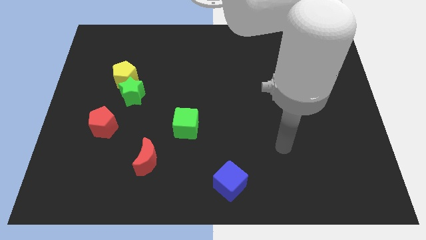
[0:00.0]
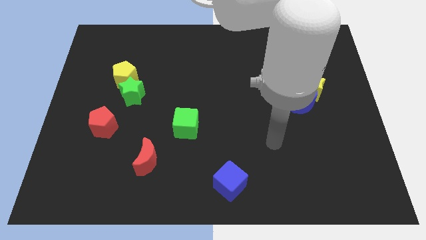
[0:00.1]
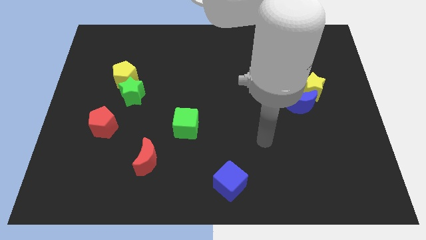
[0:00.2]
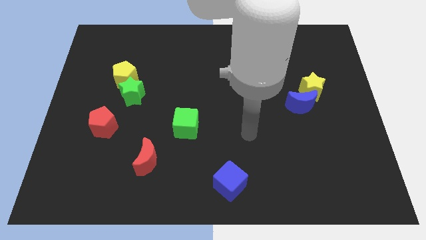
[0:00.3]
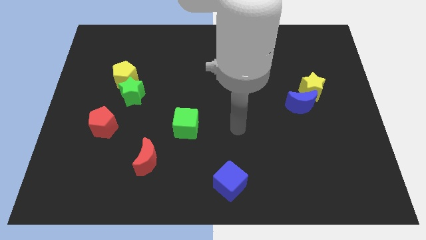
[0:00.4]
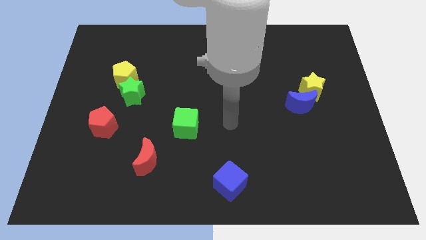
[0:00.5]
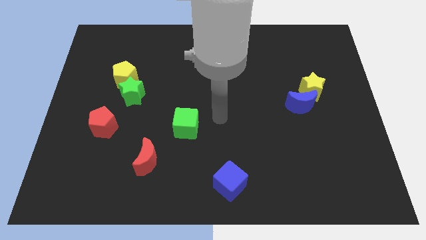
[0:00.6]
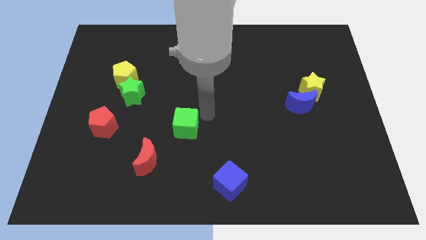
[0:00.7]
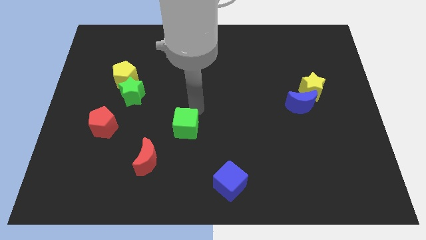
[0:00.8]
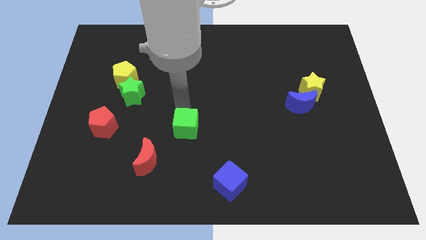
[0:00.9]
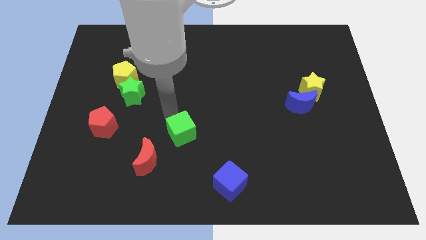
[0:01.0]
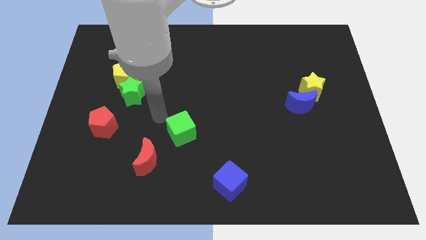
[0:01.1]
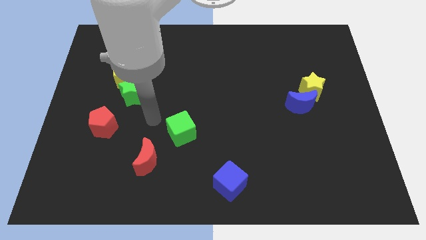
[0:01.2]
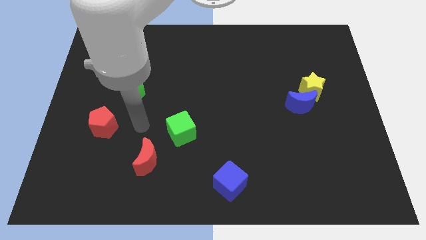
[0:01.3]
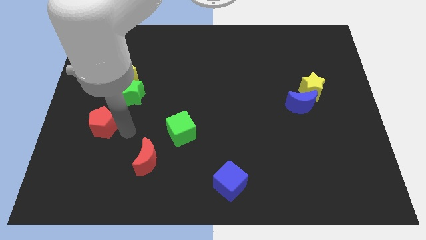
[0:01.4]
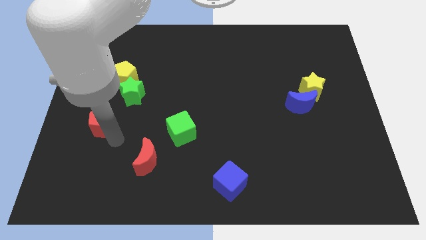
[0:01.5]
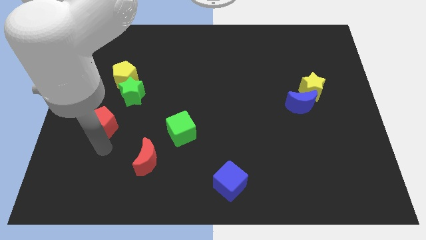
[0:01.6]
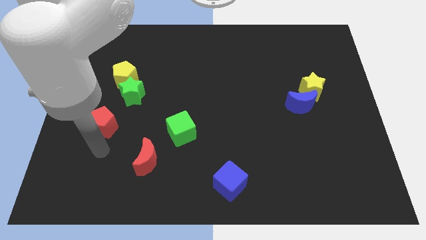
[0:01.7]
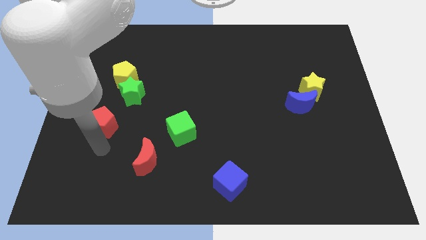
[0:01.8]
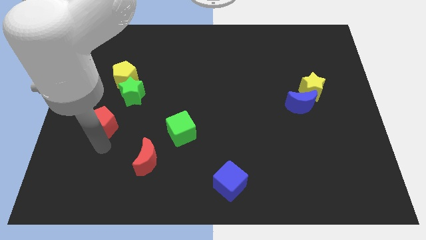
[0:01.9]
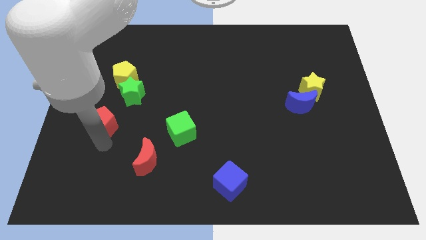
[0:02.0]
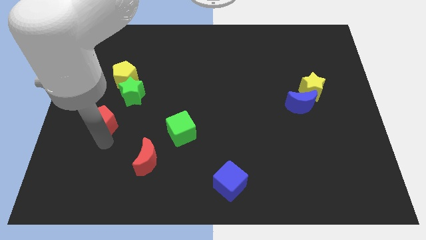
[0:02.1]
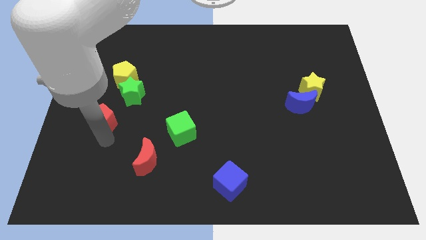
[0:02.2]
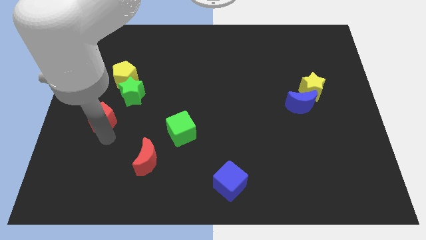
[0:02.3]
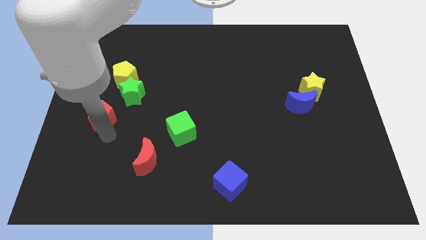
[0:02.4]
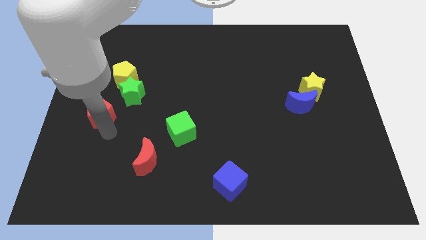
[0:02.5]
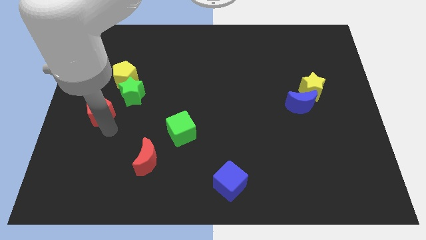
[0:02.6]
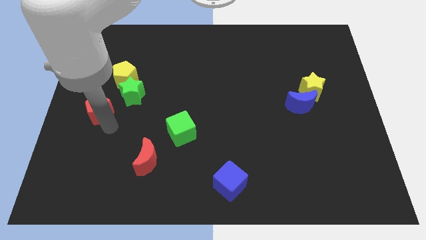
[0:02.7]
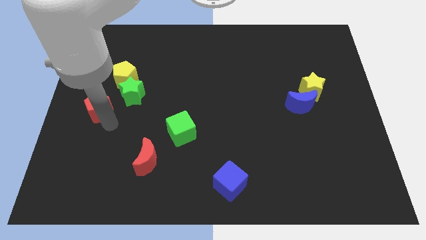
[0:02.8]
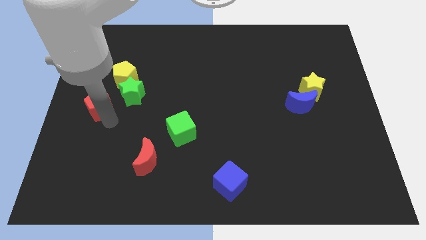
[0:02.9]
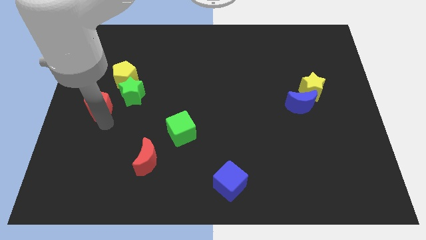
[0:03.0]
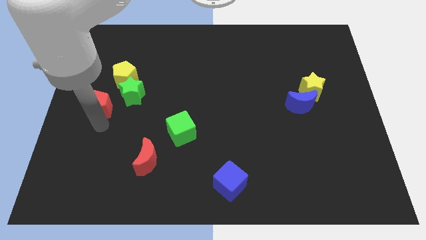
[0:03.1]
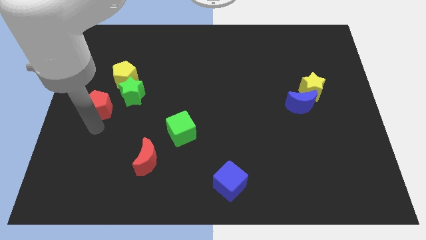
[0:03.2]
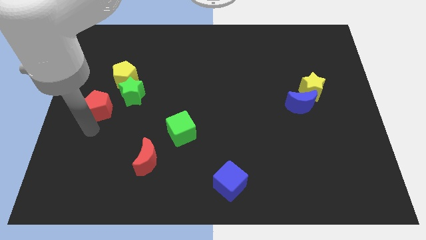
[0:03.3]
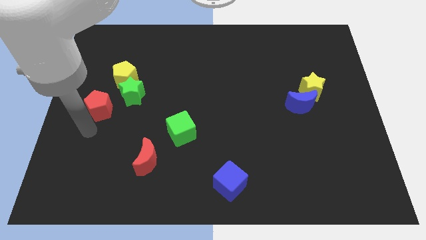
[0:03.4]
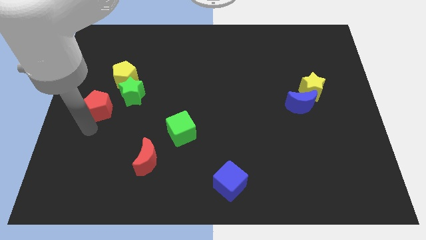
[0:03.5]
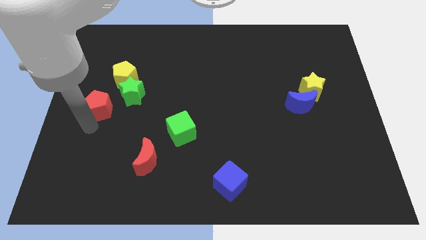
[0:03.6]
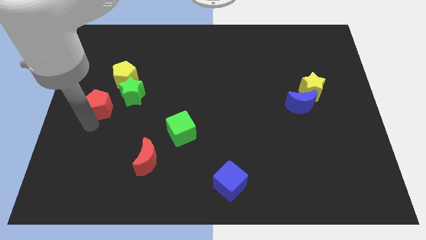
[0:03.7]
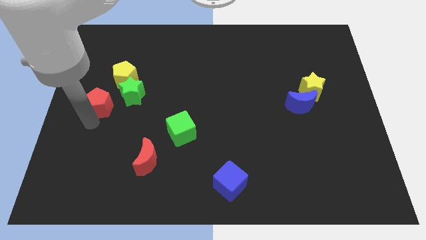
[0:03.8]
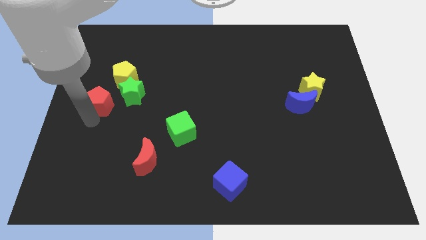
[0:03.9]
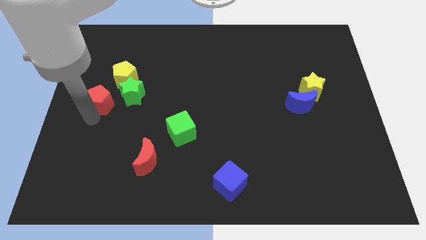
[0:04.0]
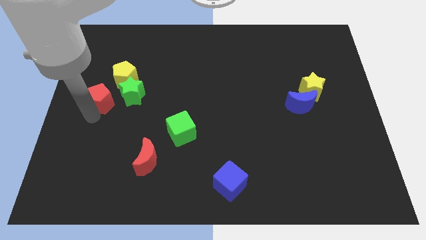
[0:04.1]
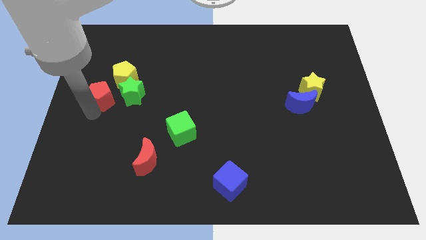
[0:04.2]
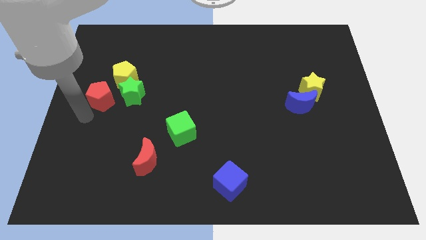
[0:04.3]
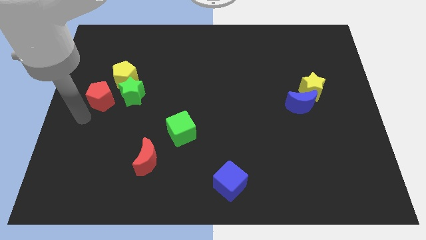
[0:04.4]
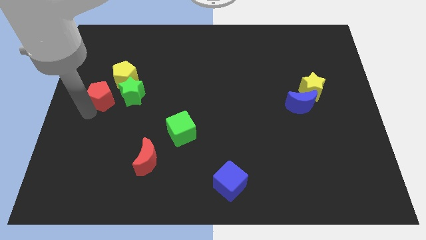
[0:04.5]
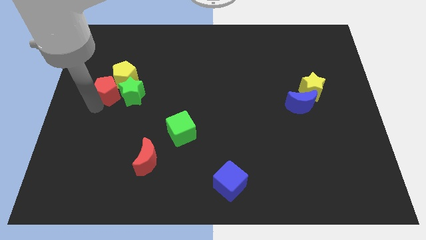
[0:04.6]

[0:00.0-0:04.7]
put the red pentagon to the yellow pentagon

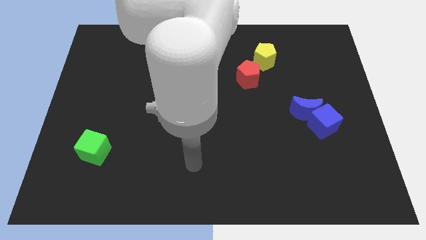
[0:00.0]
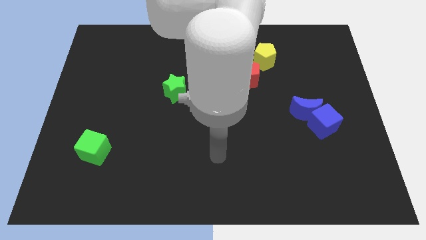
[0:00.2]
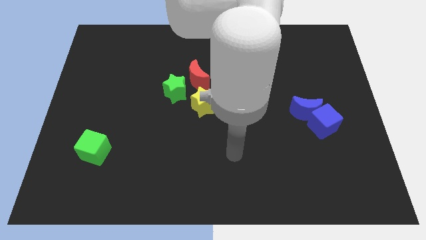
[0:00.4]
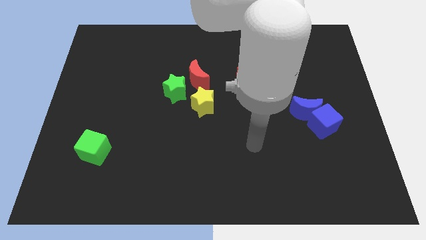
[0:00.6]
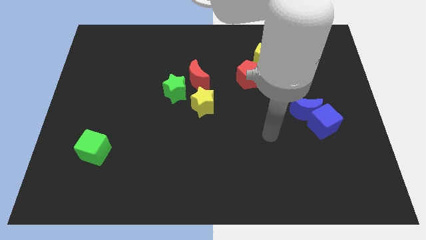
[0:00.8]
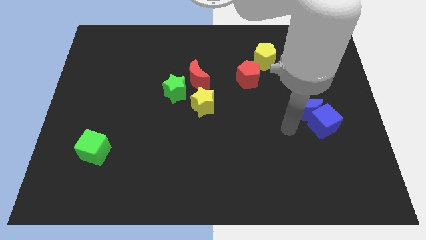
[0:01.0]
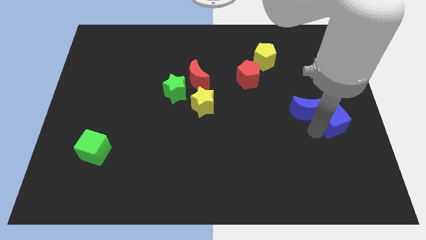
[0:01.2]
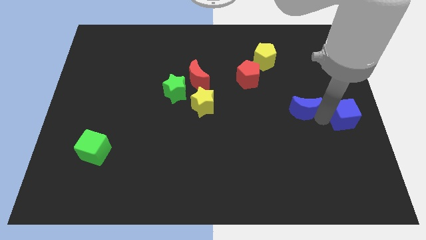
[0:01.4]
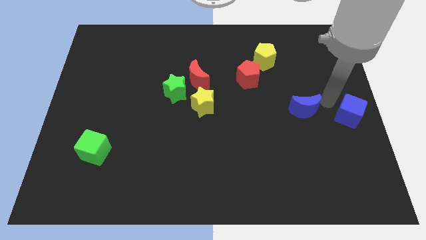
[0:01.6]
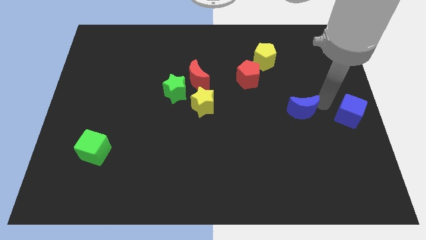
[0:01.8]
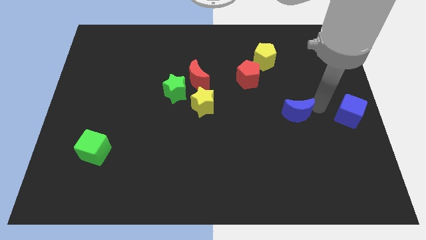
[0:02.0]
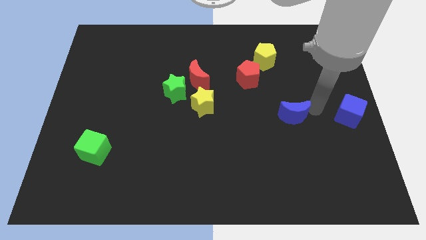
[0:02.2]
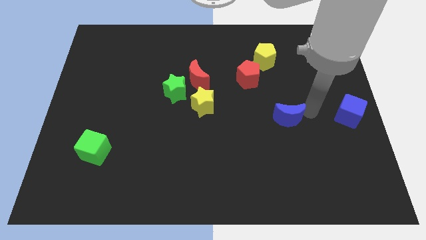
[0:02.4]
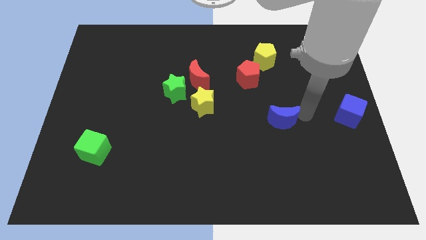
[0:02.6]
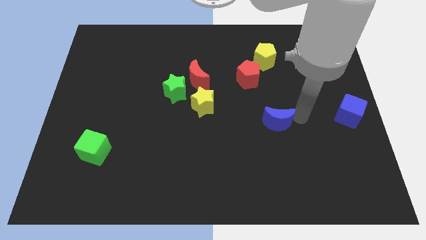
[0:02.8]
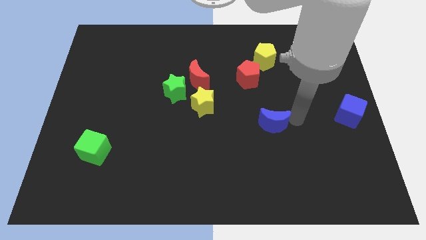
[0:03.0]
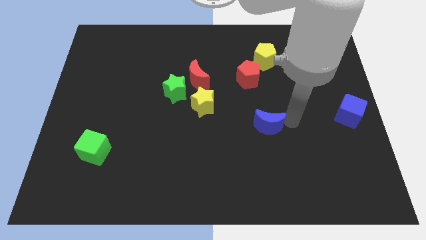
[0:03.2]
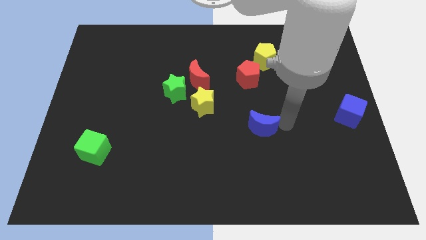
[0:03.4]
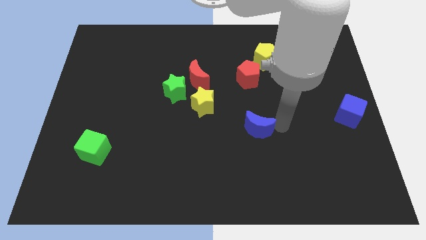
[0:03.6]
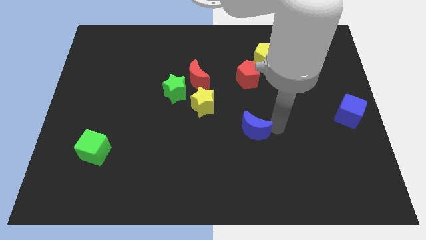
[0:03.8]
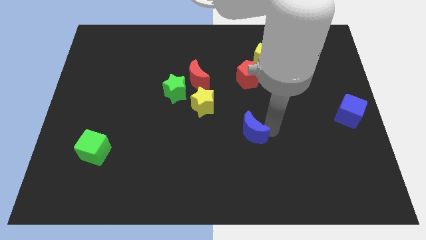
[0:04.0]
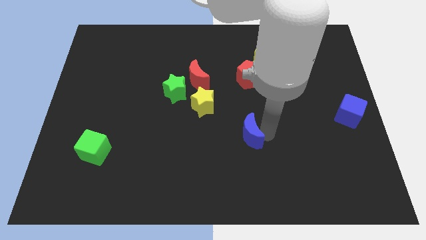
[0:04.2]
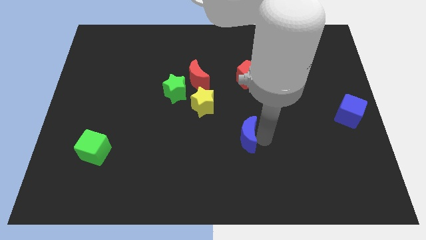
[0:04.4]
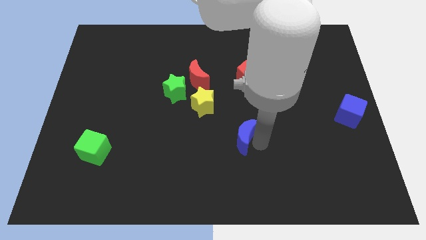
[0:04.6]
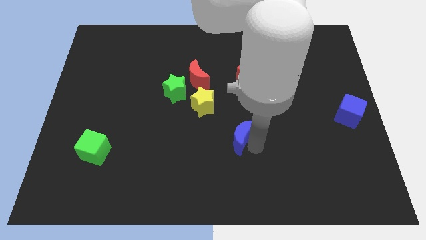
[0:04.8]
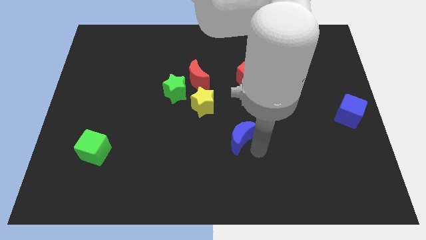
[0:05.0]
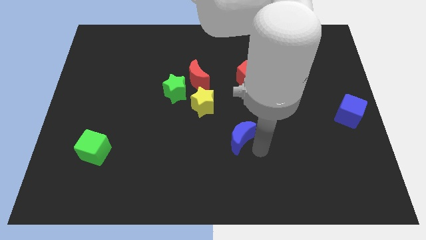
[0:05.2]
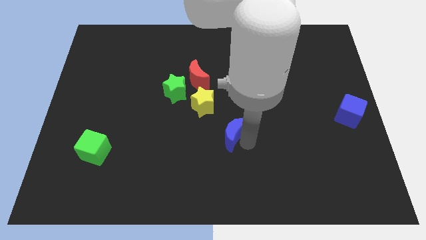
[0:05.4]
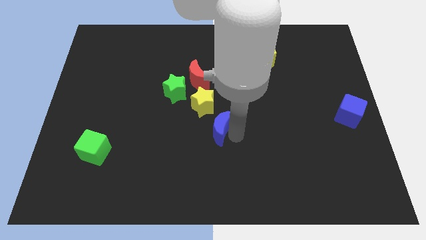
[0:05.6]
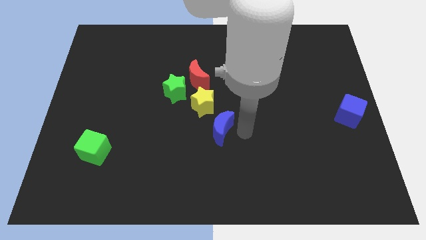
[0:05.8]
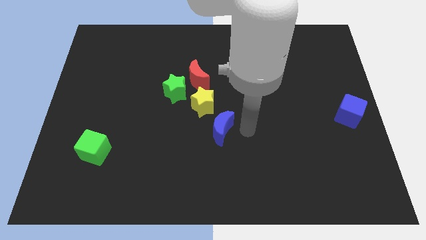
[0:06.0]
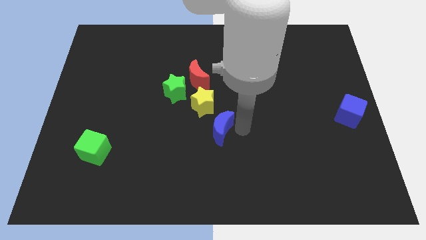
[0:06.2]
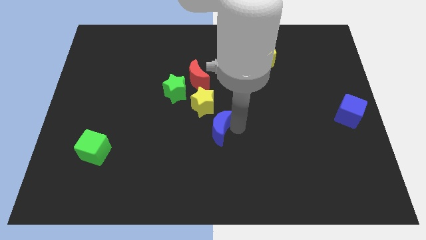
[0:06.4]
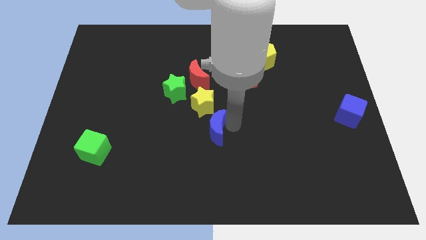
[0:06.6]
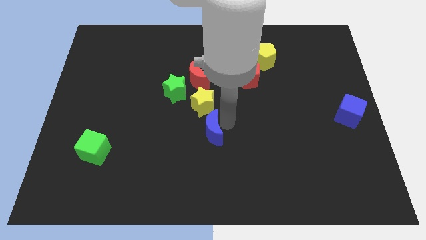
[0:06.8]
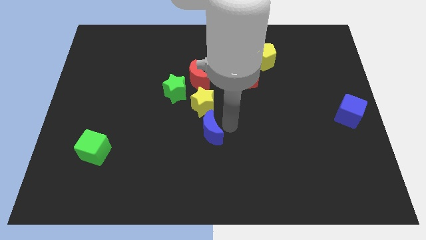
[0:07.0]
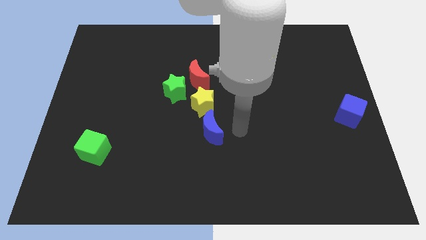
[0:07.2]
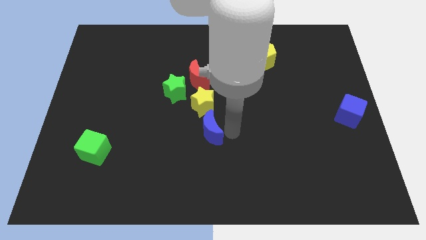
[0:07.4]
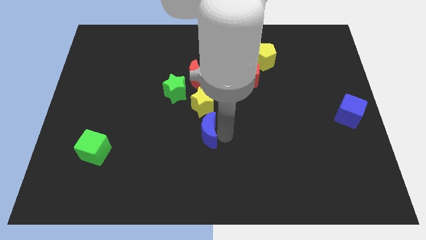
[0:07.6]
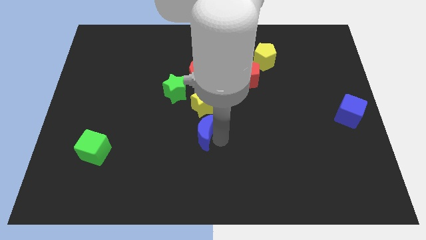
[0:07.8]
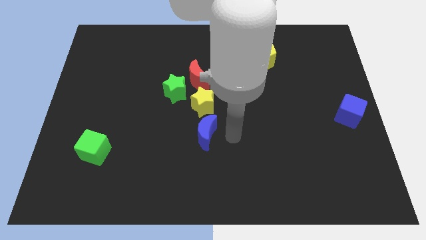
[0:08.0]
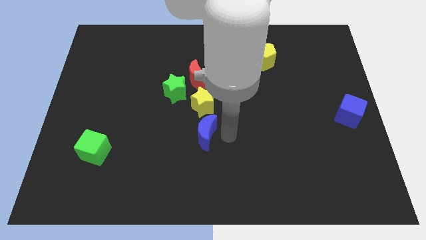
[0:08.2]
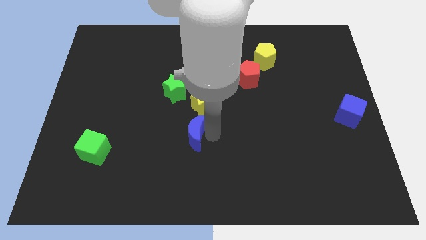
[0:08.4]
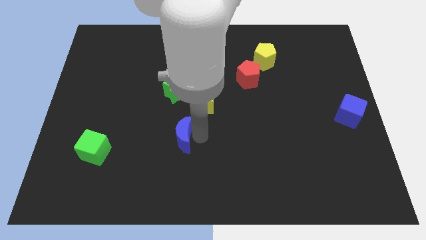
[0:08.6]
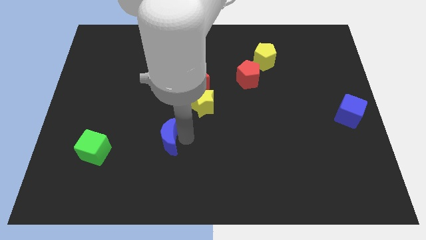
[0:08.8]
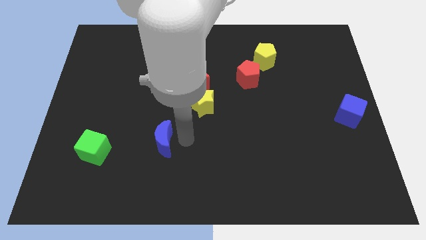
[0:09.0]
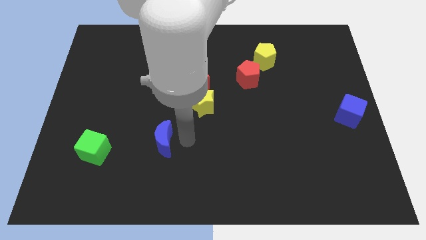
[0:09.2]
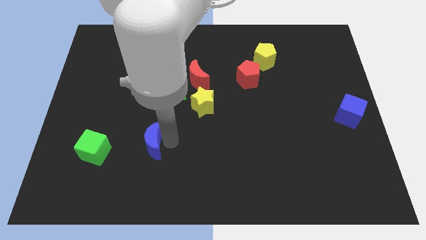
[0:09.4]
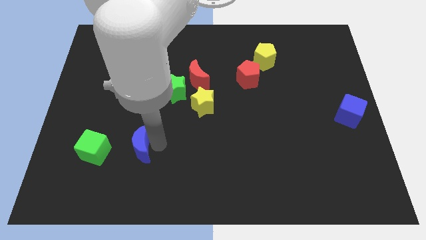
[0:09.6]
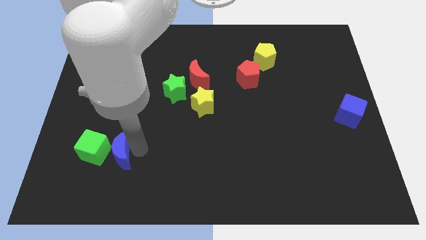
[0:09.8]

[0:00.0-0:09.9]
put the blue moon to the green cube
